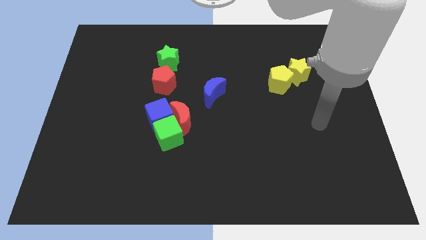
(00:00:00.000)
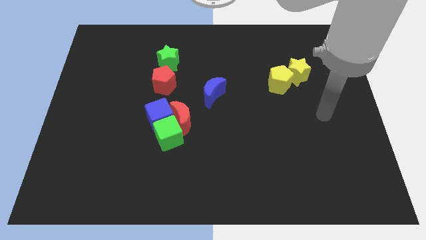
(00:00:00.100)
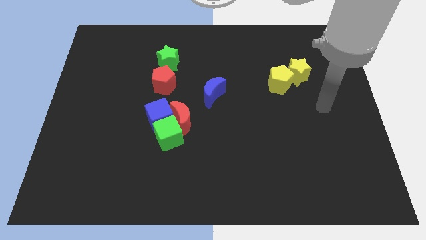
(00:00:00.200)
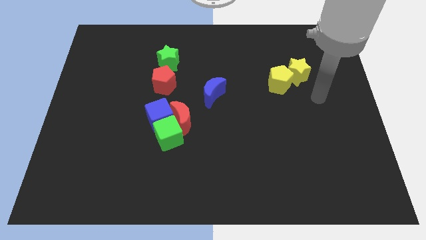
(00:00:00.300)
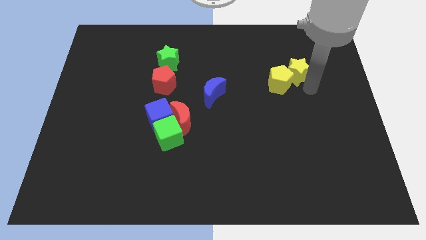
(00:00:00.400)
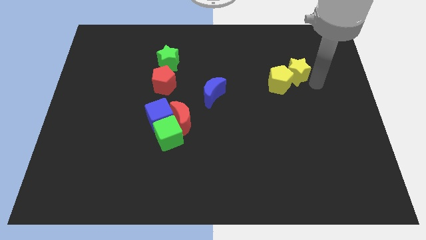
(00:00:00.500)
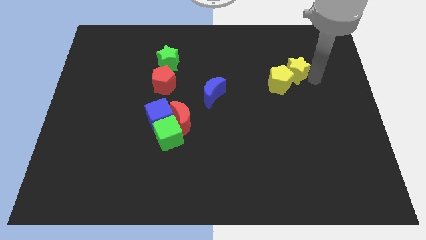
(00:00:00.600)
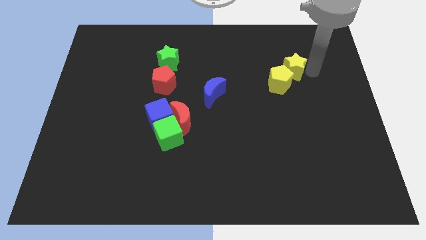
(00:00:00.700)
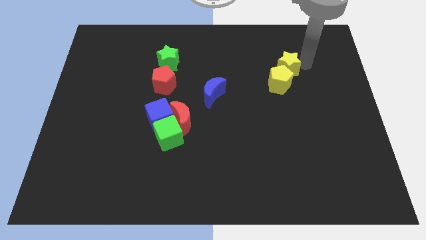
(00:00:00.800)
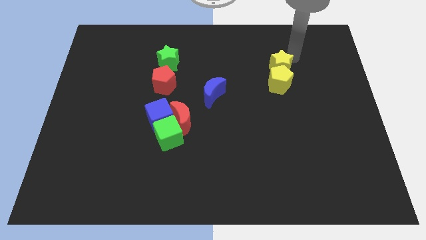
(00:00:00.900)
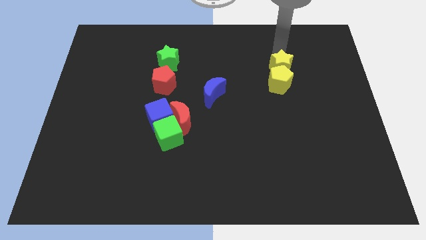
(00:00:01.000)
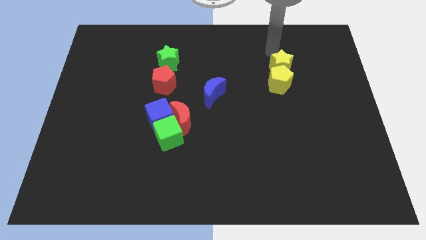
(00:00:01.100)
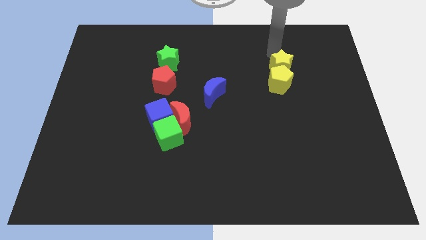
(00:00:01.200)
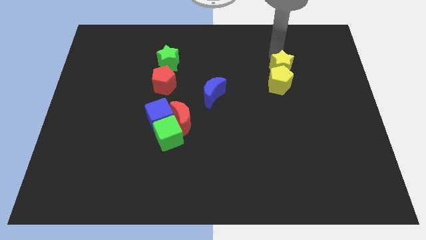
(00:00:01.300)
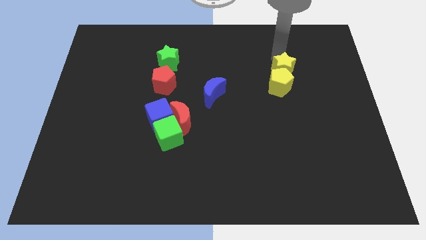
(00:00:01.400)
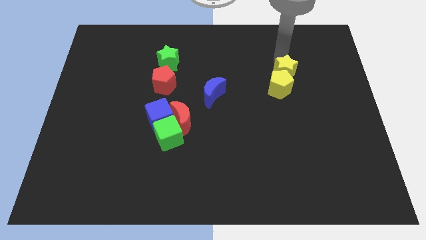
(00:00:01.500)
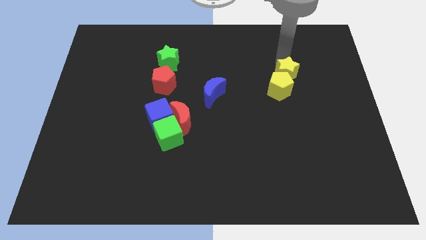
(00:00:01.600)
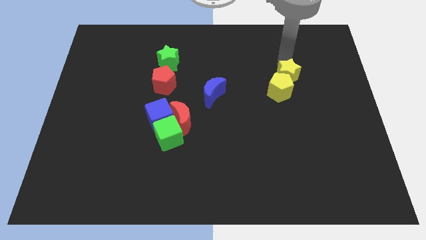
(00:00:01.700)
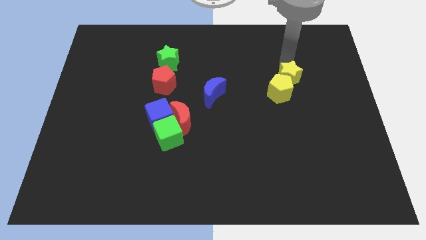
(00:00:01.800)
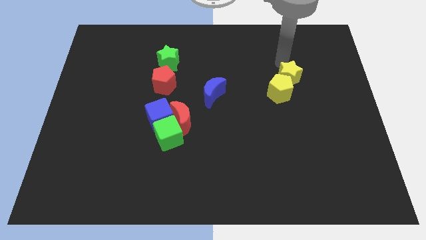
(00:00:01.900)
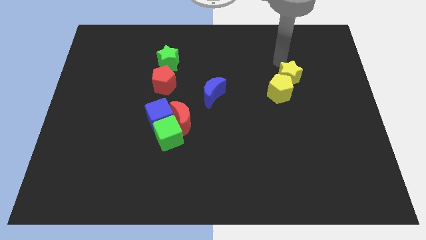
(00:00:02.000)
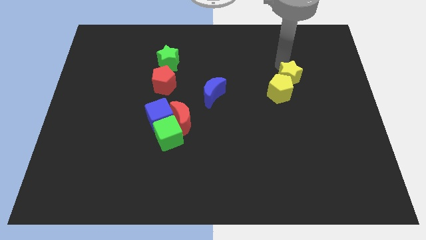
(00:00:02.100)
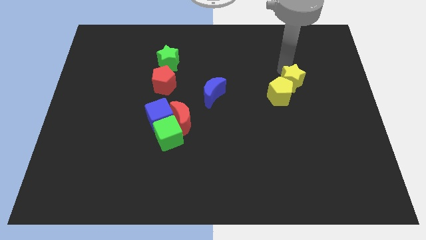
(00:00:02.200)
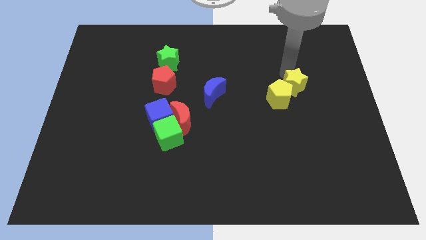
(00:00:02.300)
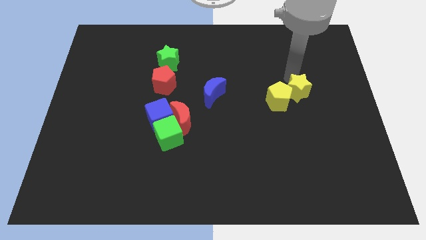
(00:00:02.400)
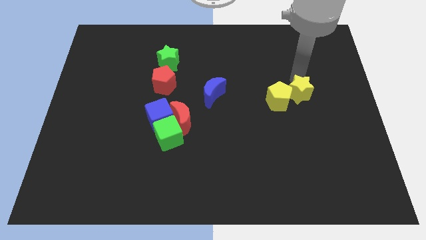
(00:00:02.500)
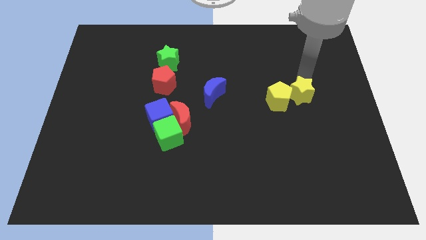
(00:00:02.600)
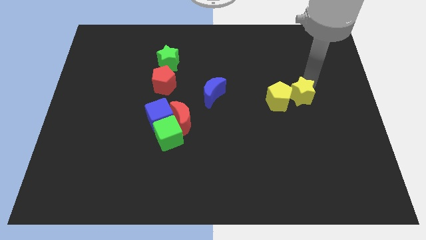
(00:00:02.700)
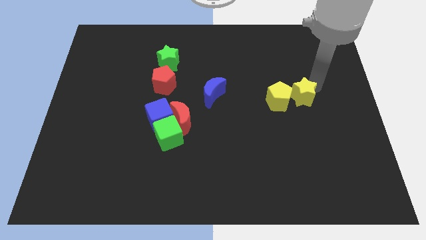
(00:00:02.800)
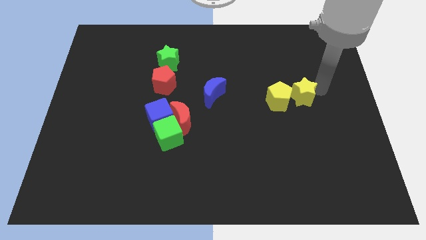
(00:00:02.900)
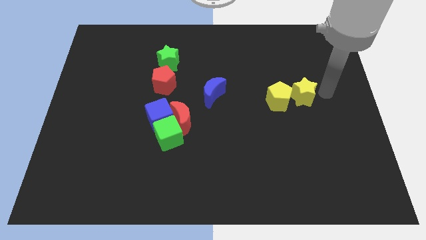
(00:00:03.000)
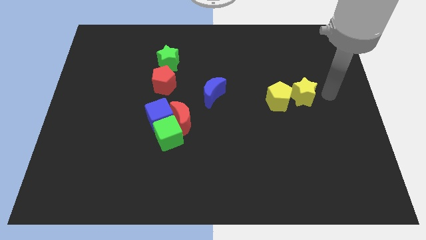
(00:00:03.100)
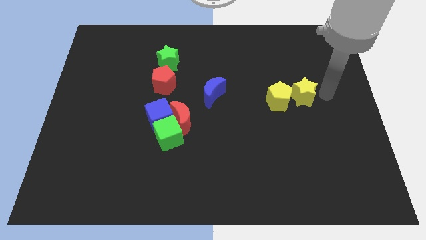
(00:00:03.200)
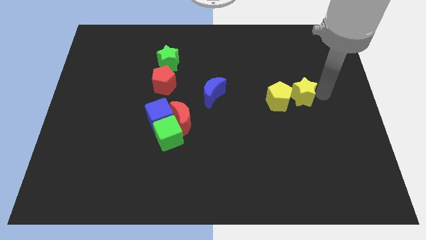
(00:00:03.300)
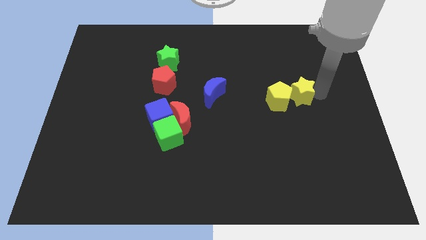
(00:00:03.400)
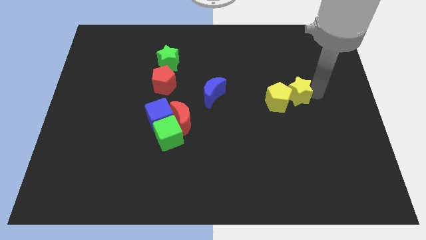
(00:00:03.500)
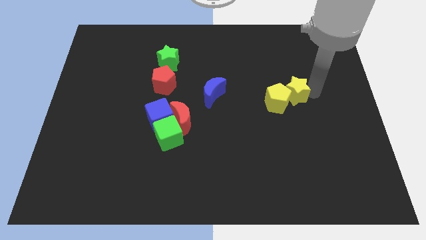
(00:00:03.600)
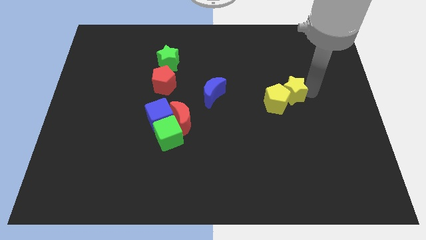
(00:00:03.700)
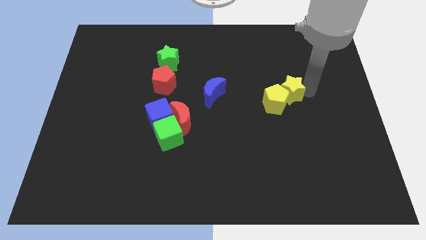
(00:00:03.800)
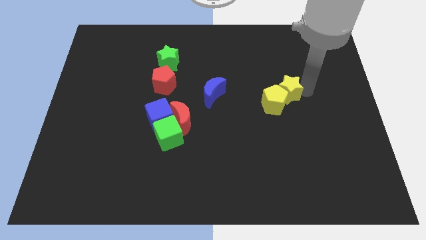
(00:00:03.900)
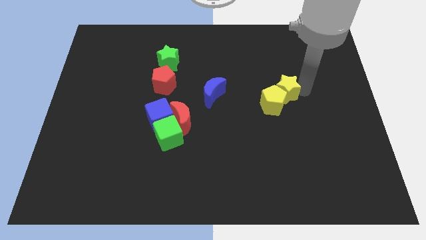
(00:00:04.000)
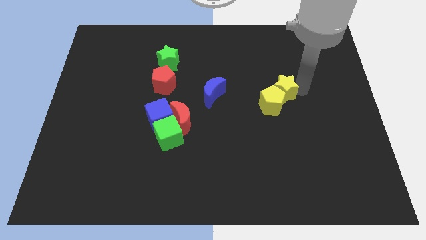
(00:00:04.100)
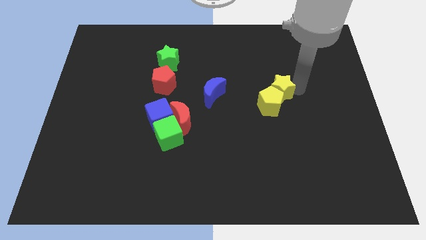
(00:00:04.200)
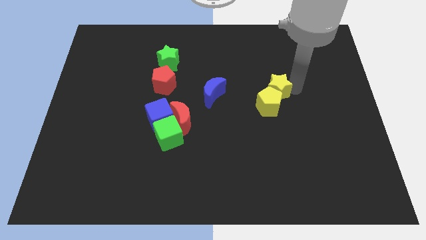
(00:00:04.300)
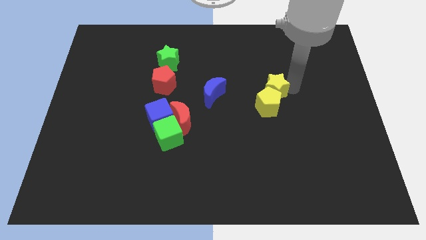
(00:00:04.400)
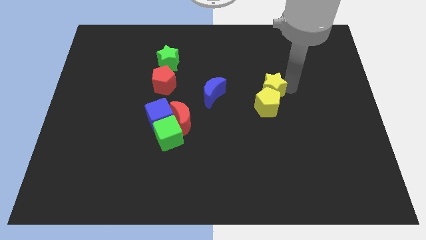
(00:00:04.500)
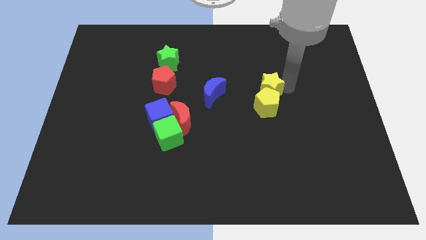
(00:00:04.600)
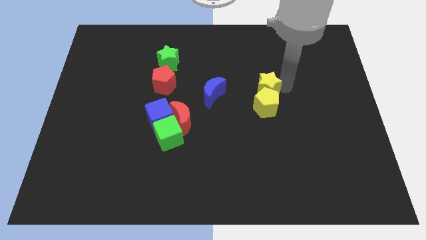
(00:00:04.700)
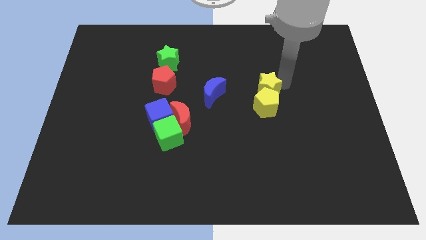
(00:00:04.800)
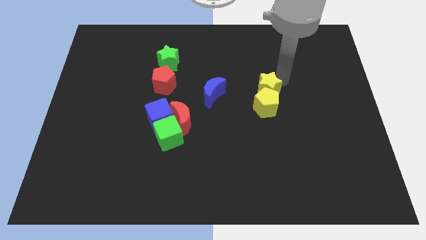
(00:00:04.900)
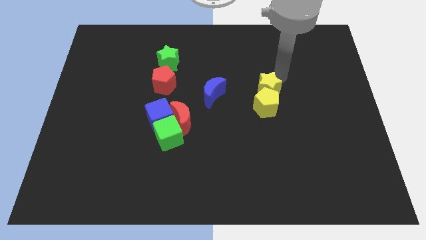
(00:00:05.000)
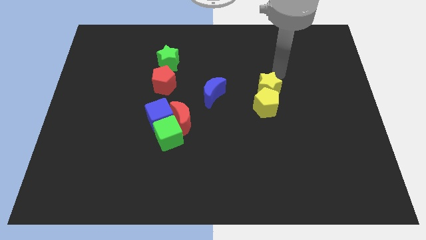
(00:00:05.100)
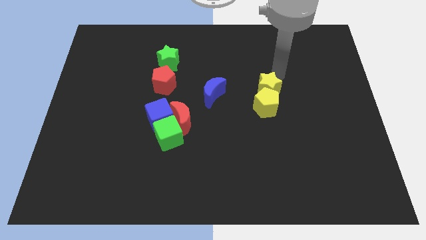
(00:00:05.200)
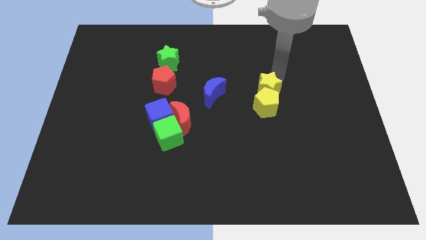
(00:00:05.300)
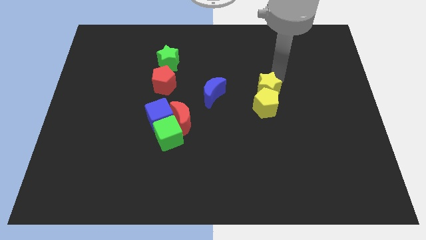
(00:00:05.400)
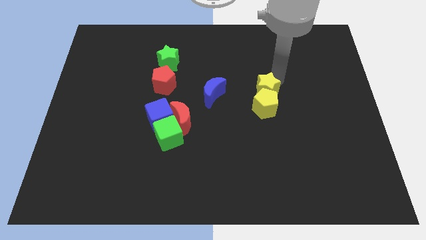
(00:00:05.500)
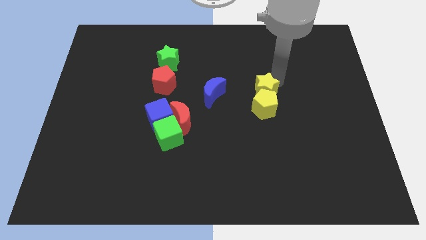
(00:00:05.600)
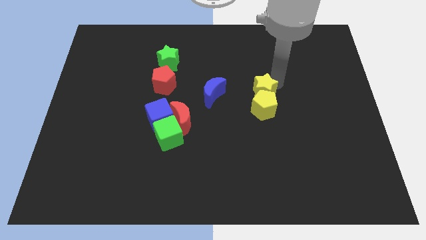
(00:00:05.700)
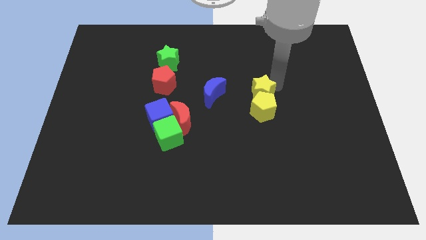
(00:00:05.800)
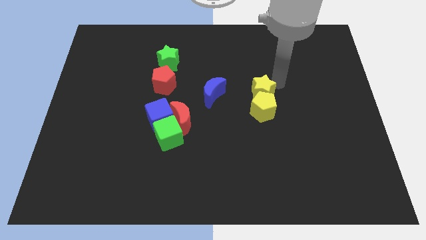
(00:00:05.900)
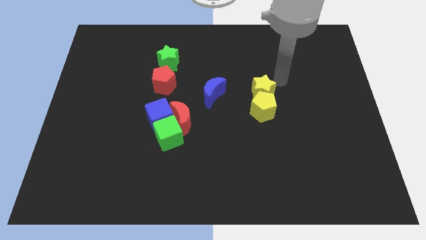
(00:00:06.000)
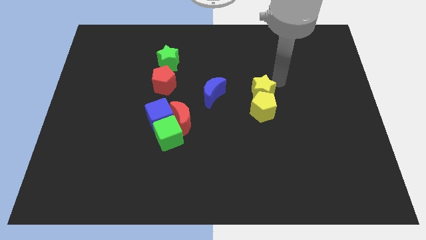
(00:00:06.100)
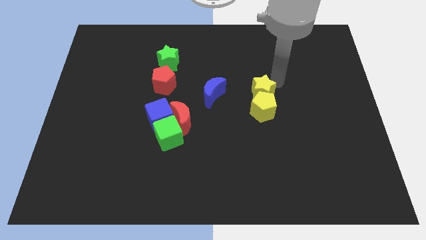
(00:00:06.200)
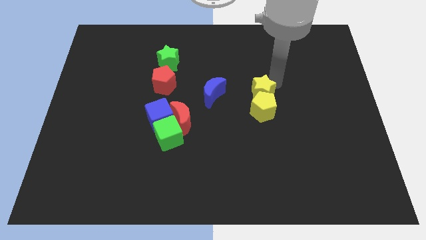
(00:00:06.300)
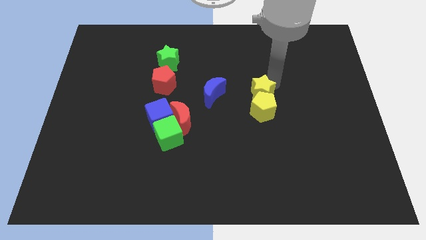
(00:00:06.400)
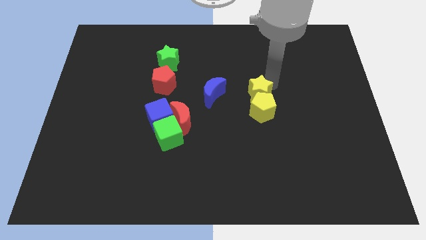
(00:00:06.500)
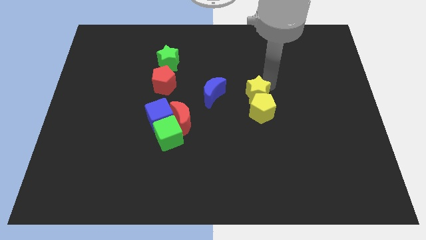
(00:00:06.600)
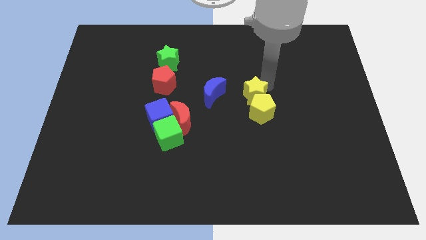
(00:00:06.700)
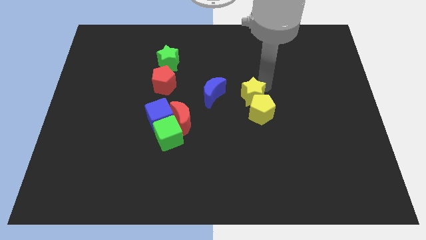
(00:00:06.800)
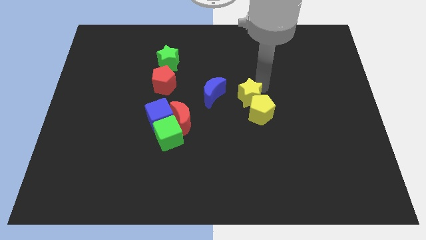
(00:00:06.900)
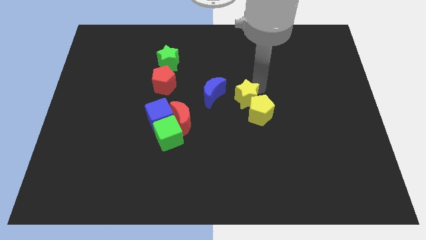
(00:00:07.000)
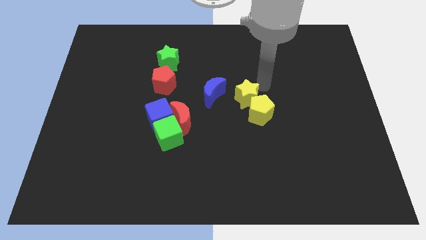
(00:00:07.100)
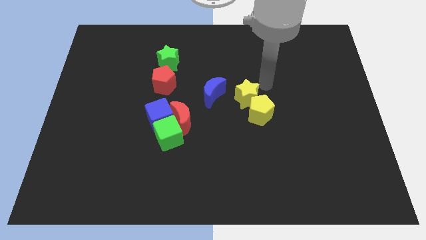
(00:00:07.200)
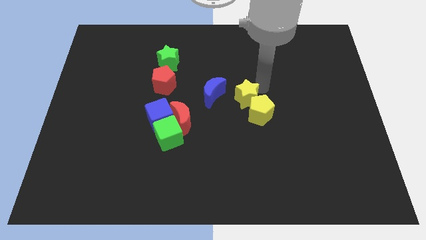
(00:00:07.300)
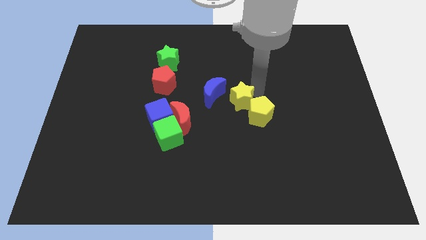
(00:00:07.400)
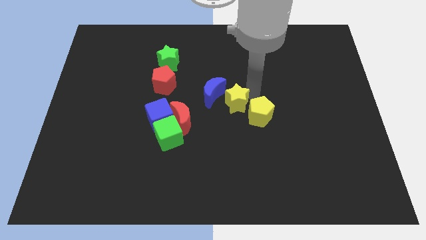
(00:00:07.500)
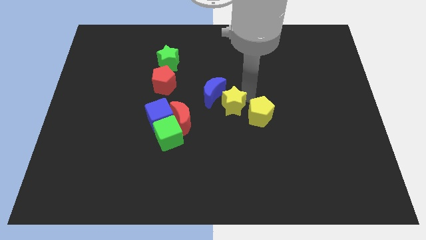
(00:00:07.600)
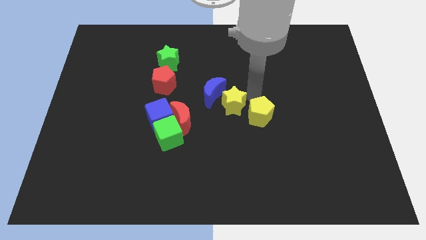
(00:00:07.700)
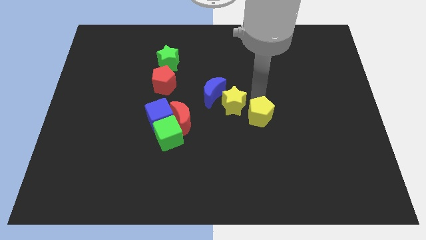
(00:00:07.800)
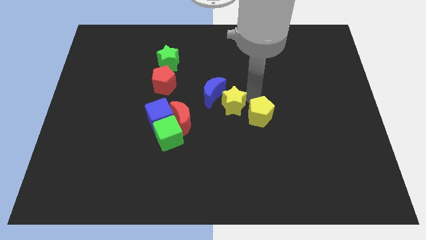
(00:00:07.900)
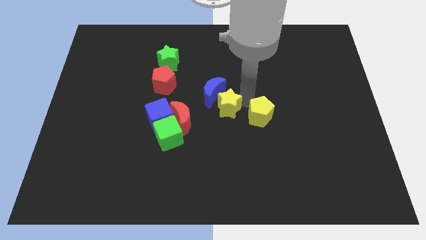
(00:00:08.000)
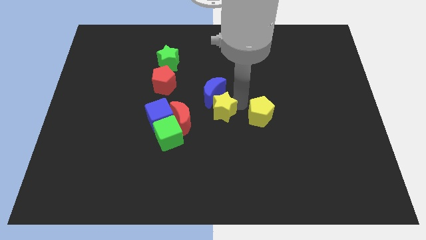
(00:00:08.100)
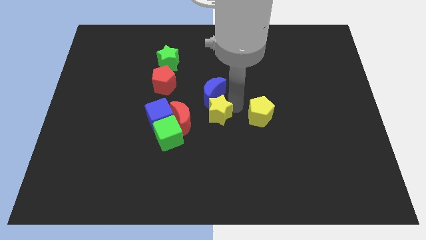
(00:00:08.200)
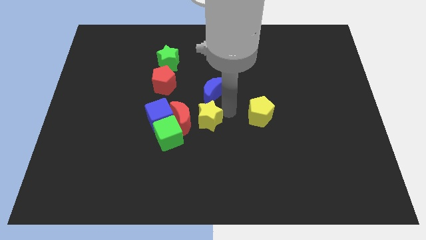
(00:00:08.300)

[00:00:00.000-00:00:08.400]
put the yellow star close to the red moon
